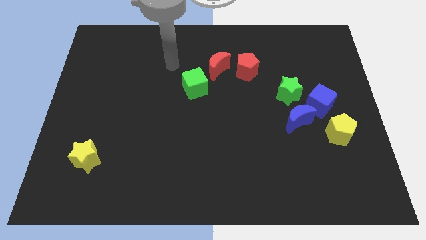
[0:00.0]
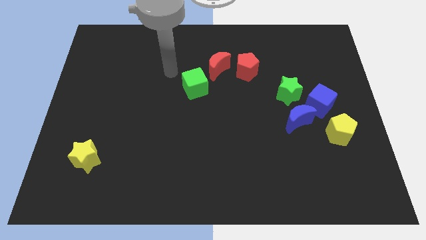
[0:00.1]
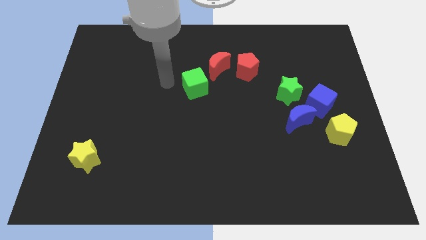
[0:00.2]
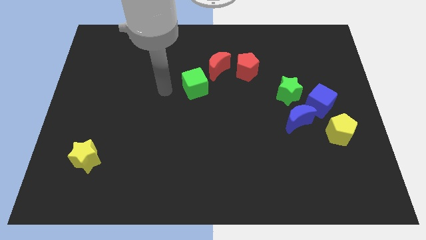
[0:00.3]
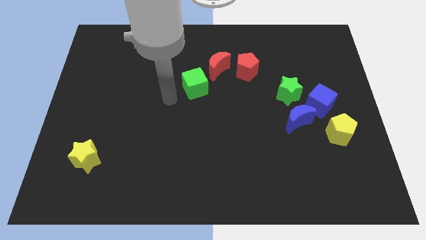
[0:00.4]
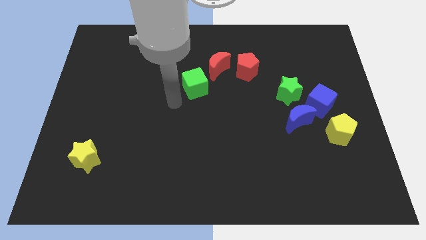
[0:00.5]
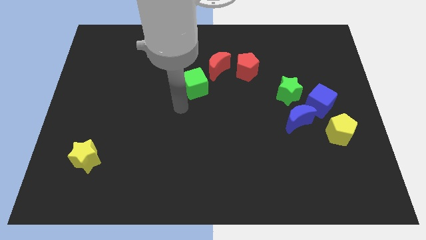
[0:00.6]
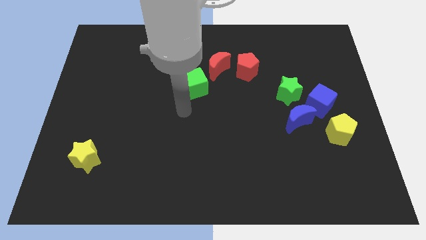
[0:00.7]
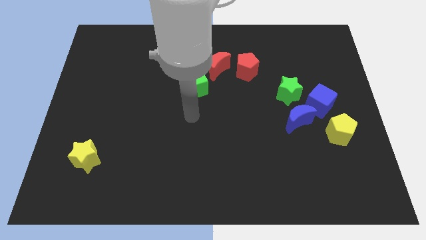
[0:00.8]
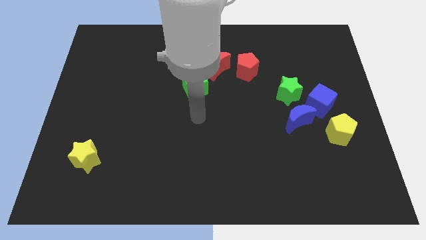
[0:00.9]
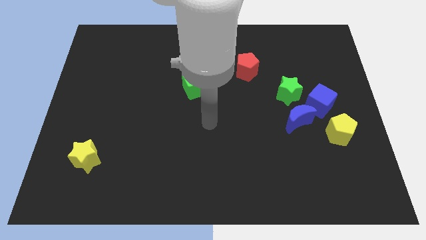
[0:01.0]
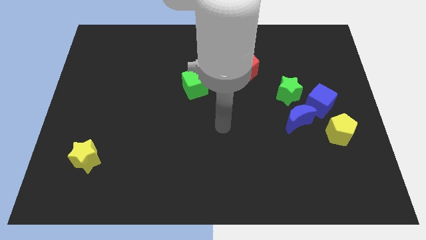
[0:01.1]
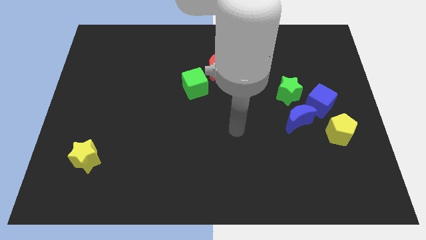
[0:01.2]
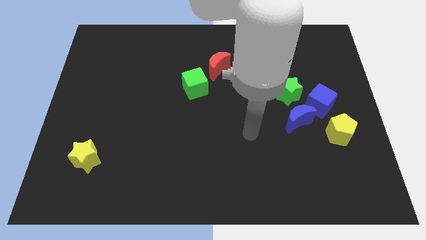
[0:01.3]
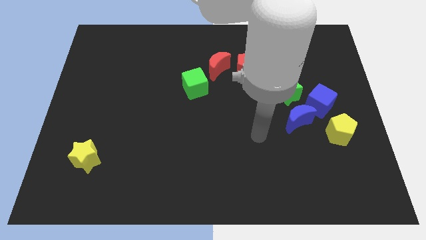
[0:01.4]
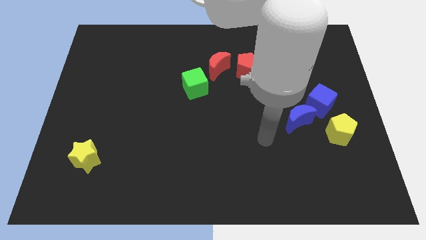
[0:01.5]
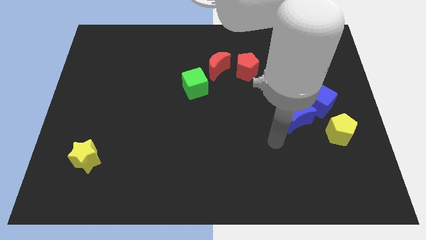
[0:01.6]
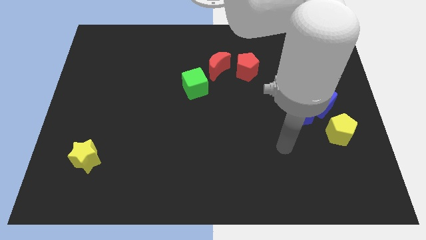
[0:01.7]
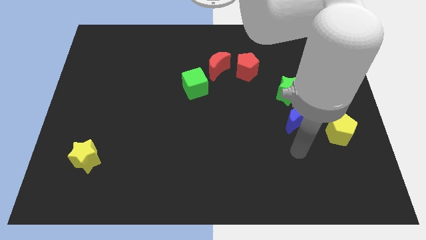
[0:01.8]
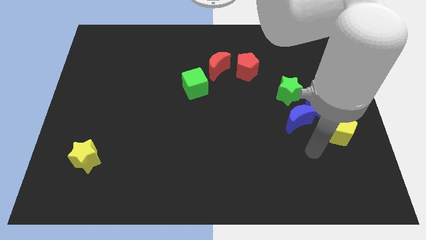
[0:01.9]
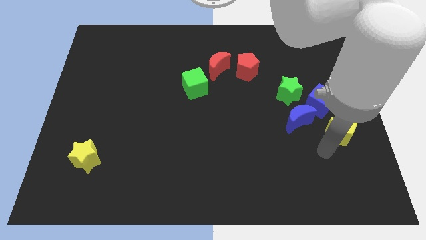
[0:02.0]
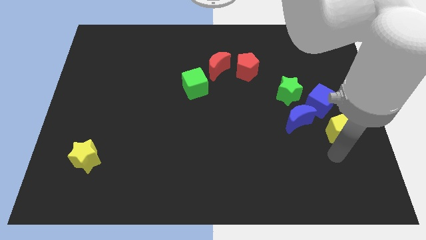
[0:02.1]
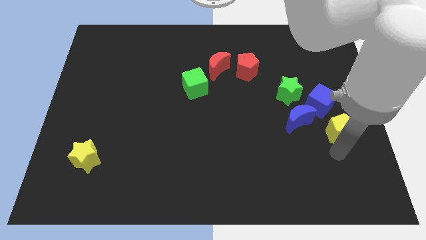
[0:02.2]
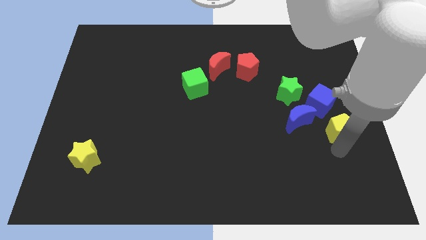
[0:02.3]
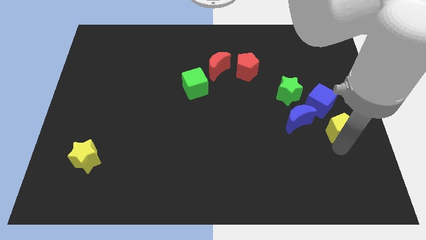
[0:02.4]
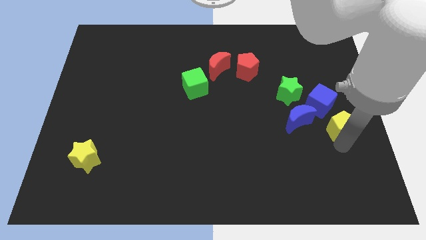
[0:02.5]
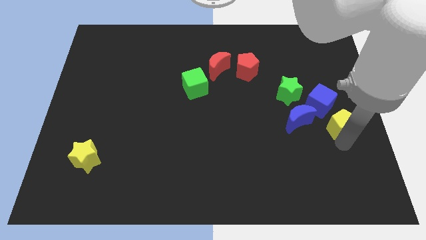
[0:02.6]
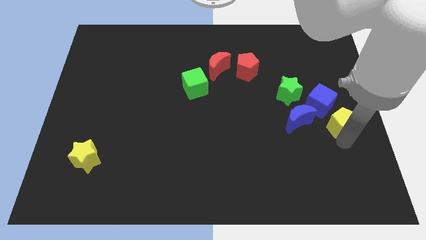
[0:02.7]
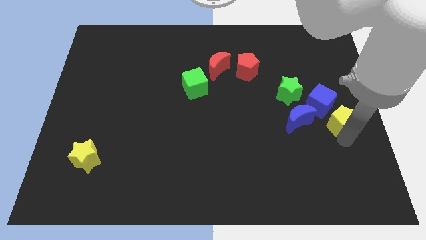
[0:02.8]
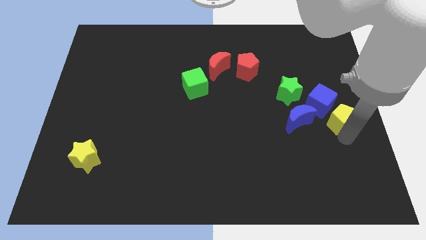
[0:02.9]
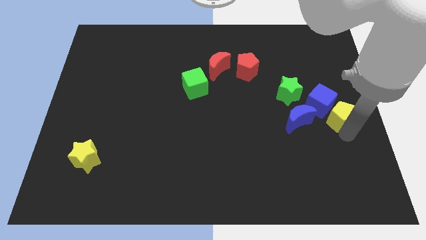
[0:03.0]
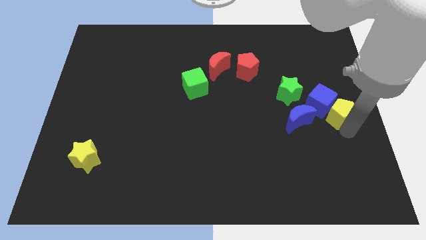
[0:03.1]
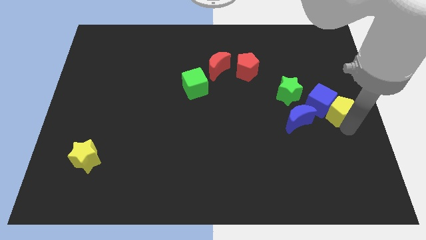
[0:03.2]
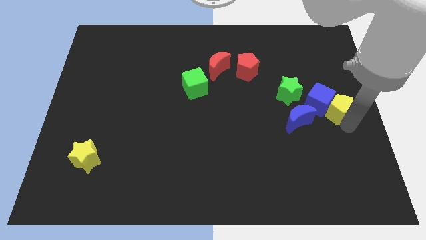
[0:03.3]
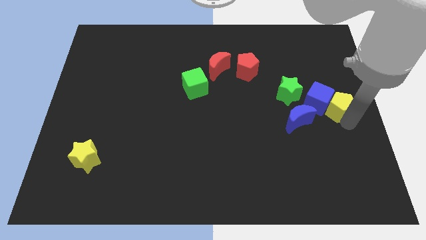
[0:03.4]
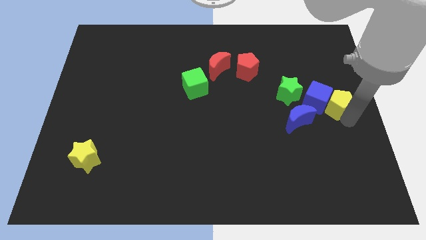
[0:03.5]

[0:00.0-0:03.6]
move the yellow pentagon up a little bit

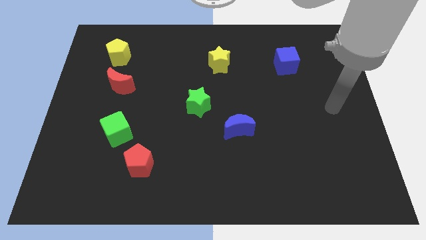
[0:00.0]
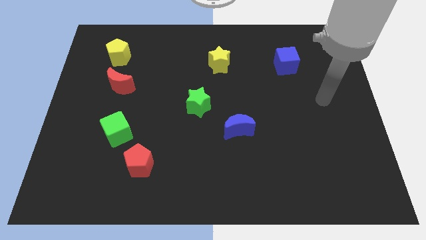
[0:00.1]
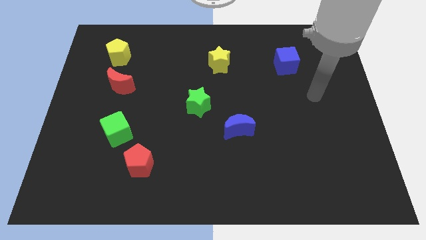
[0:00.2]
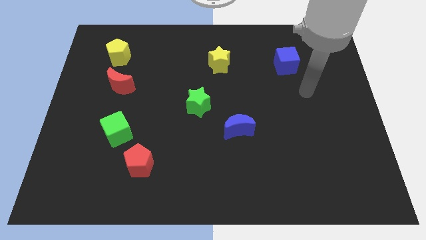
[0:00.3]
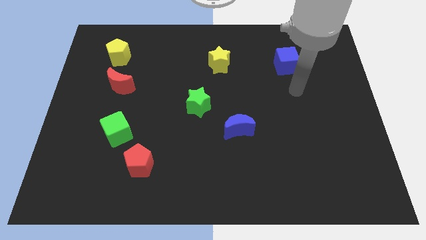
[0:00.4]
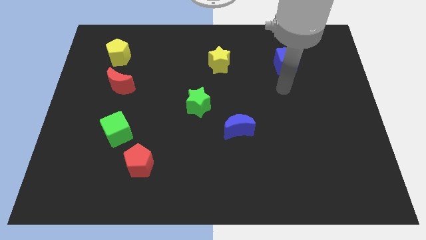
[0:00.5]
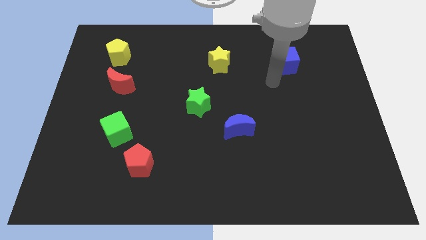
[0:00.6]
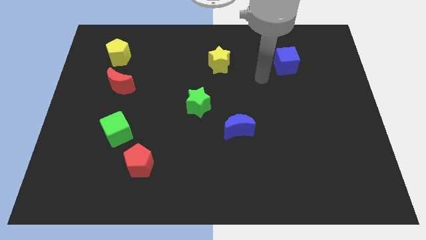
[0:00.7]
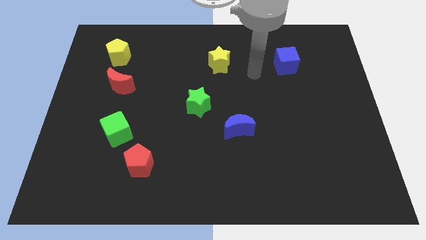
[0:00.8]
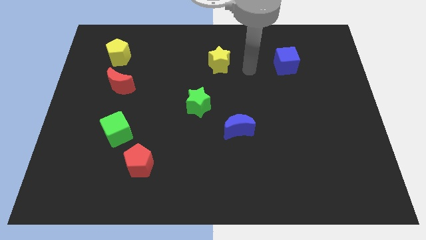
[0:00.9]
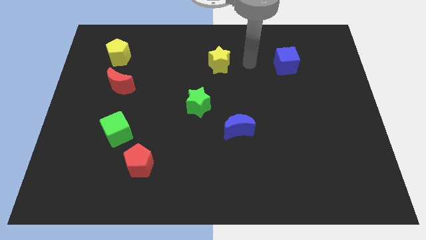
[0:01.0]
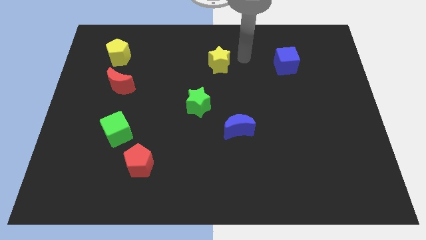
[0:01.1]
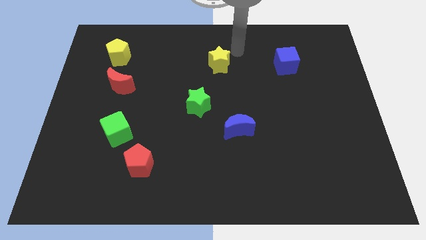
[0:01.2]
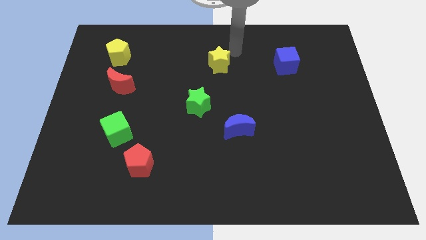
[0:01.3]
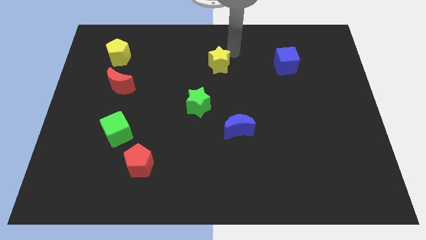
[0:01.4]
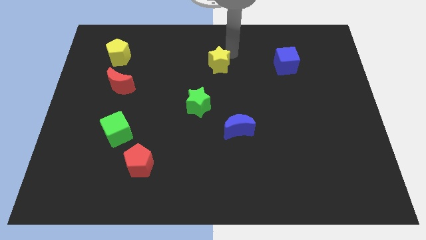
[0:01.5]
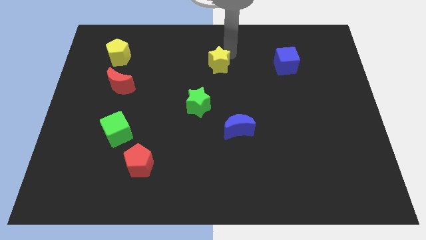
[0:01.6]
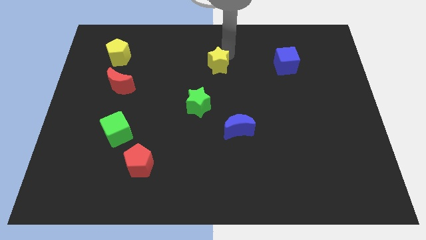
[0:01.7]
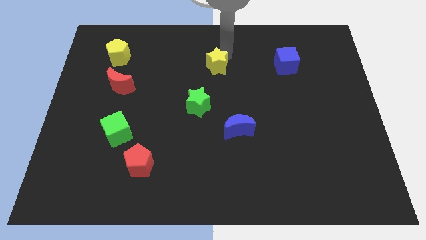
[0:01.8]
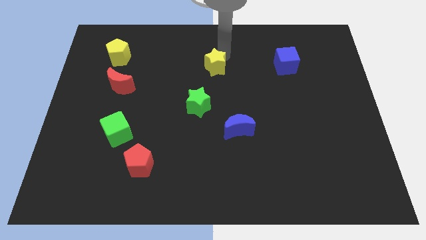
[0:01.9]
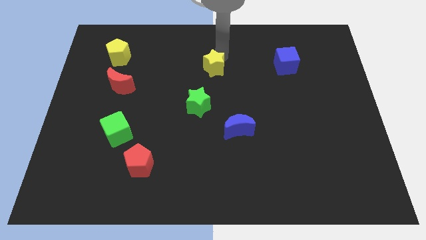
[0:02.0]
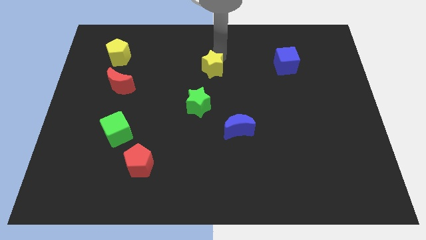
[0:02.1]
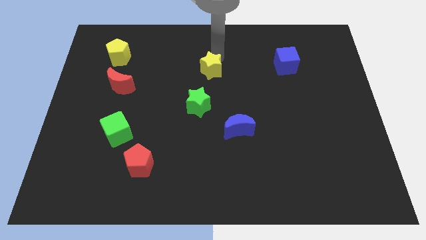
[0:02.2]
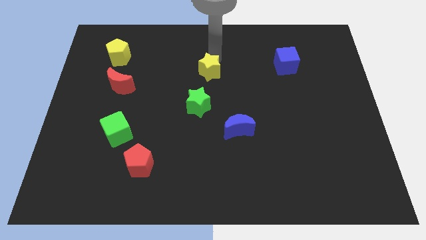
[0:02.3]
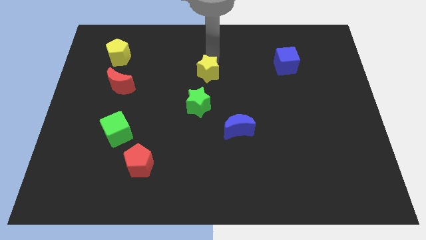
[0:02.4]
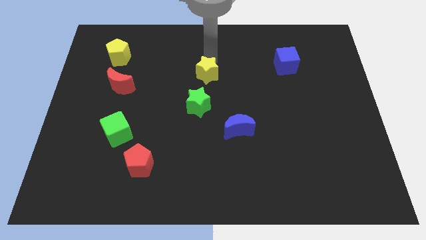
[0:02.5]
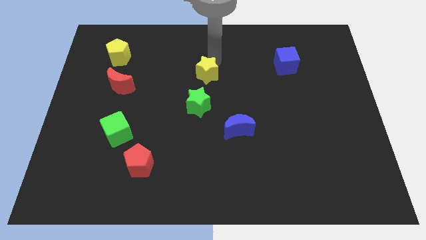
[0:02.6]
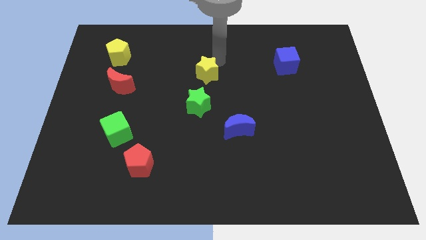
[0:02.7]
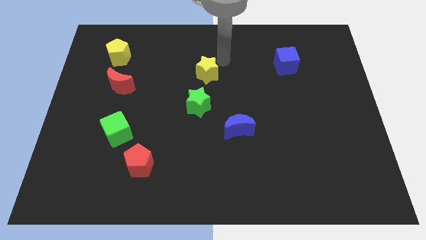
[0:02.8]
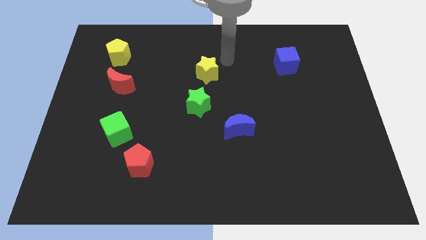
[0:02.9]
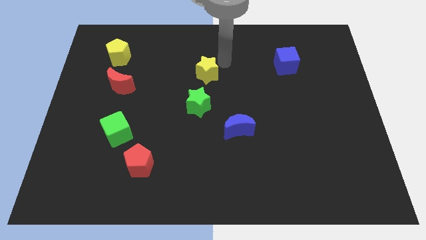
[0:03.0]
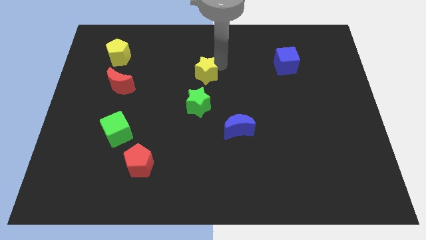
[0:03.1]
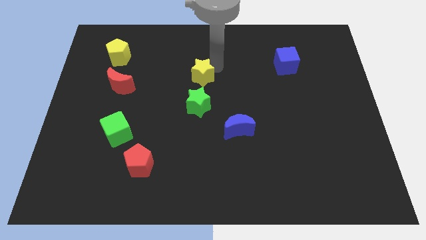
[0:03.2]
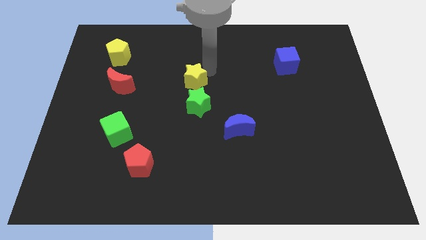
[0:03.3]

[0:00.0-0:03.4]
move the yellow star slightly down and left diagonally

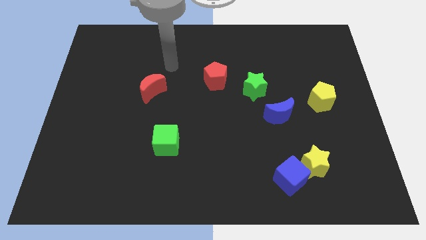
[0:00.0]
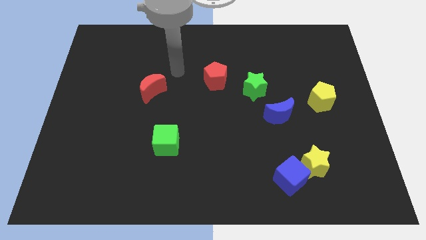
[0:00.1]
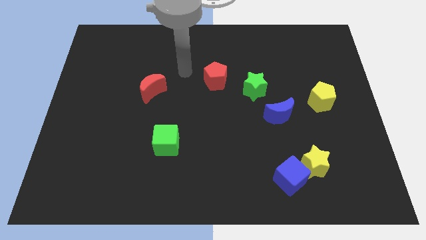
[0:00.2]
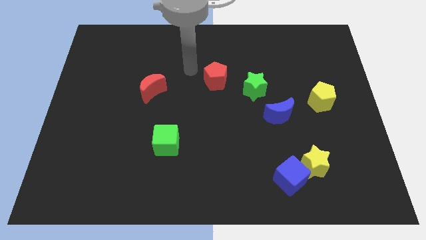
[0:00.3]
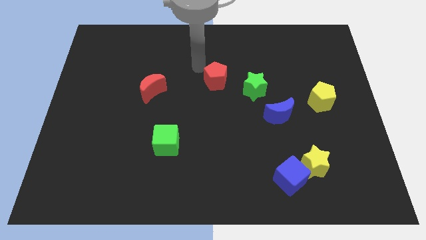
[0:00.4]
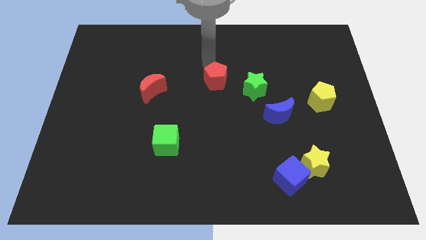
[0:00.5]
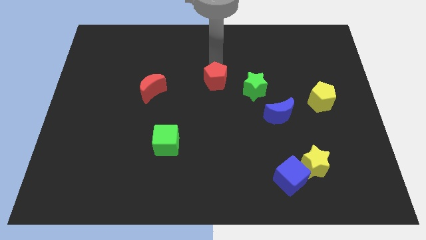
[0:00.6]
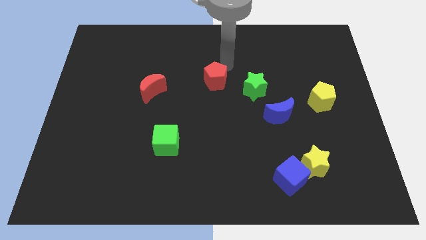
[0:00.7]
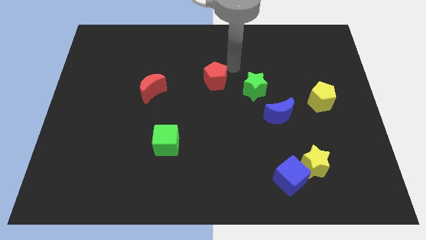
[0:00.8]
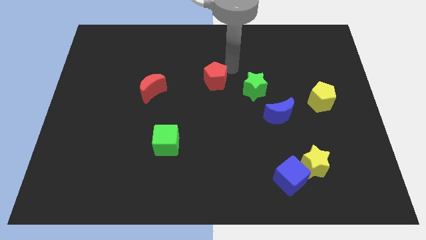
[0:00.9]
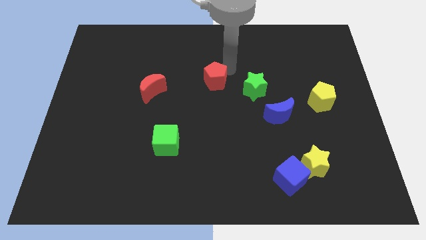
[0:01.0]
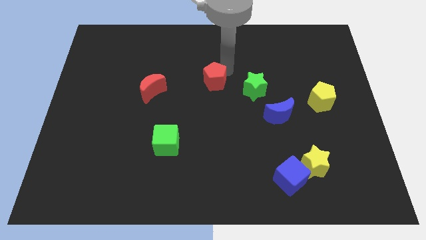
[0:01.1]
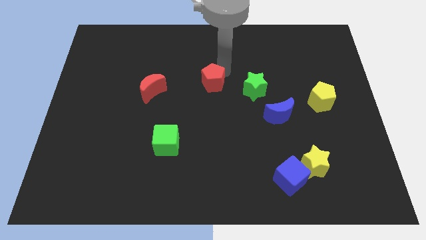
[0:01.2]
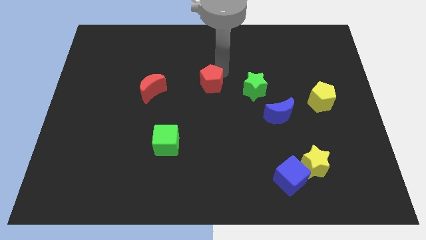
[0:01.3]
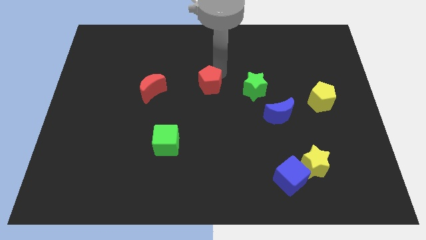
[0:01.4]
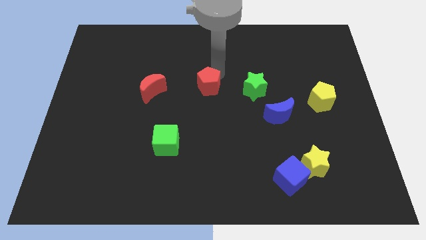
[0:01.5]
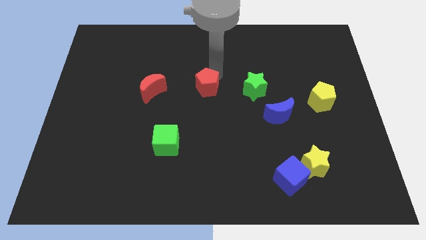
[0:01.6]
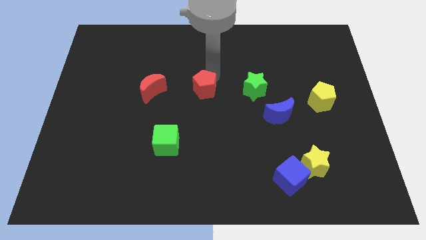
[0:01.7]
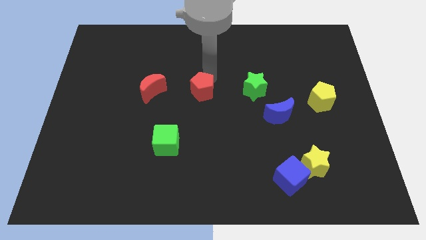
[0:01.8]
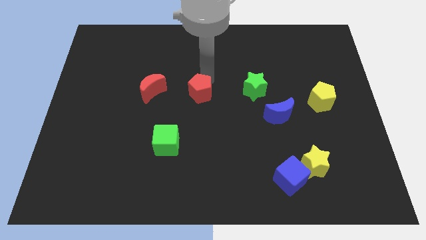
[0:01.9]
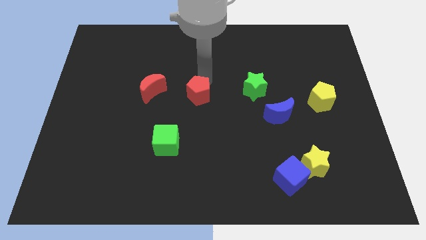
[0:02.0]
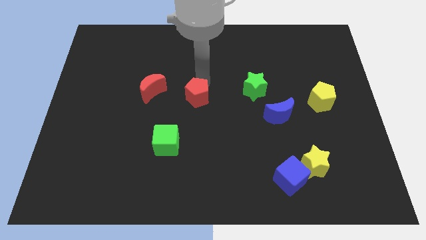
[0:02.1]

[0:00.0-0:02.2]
slide the red pentagon down and to the left a little
